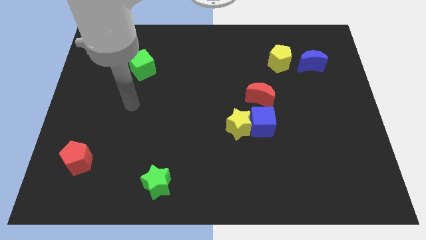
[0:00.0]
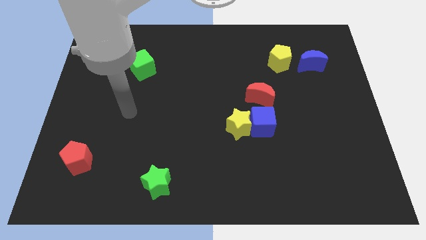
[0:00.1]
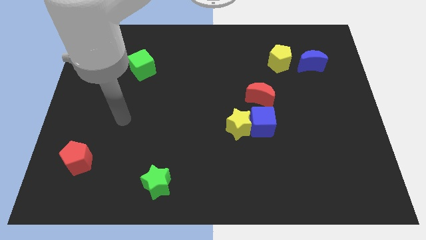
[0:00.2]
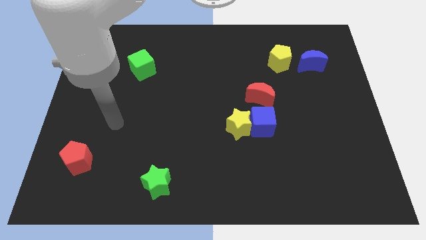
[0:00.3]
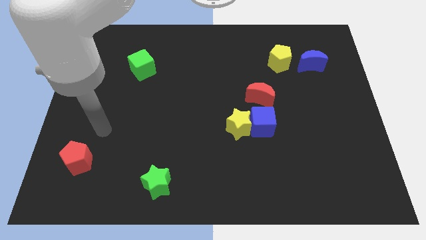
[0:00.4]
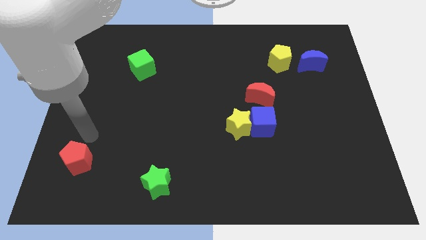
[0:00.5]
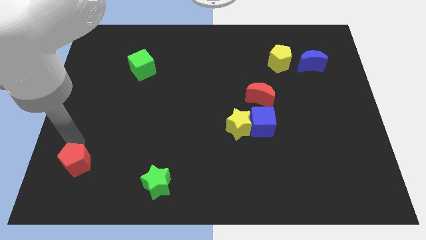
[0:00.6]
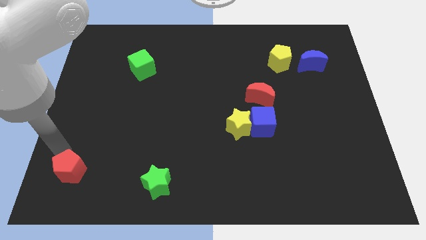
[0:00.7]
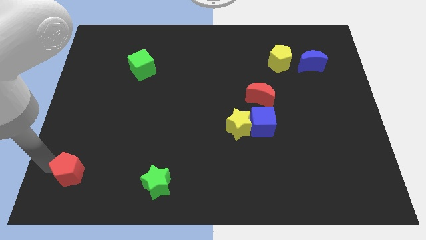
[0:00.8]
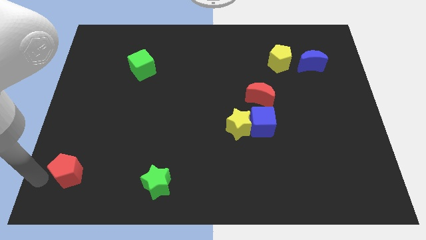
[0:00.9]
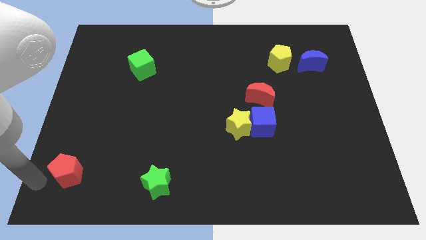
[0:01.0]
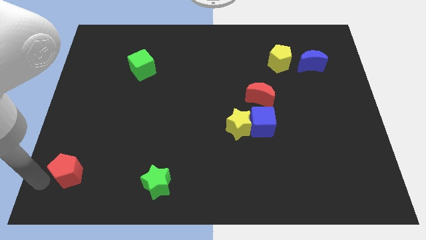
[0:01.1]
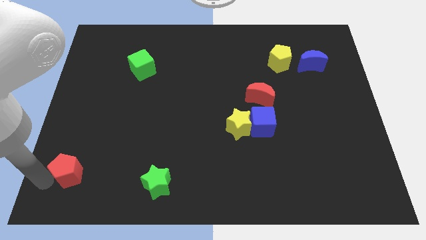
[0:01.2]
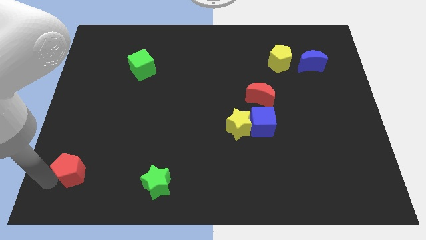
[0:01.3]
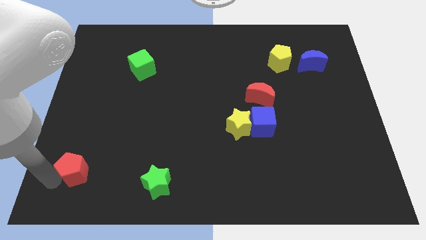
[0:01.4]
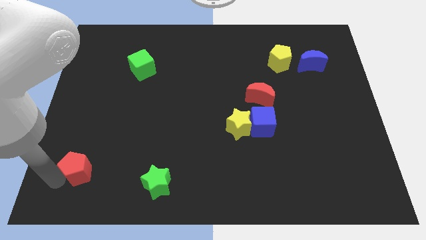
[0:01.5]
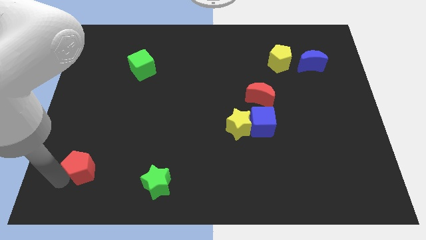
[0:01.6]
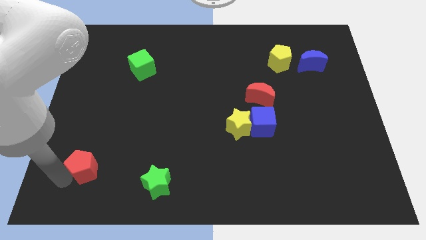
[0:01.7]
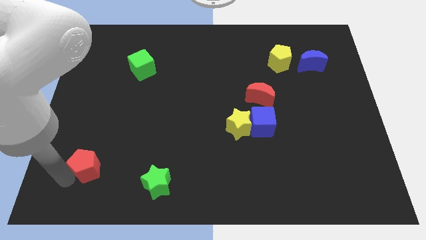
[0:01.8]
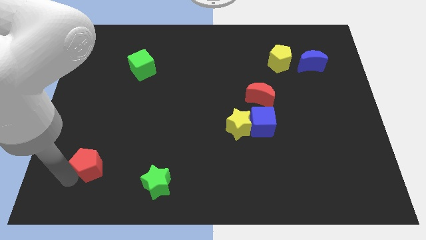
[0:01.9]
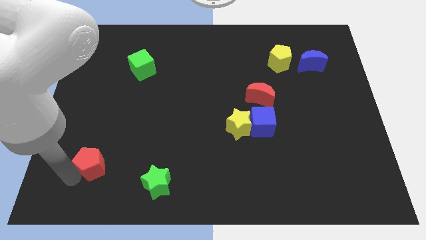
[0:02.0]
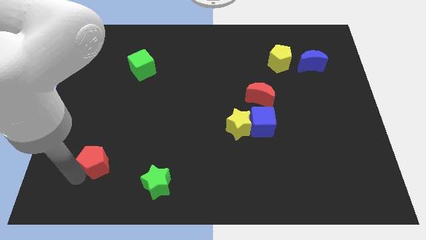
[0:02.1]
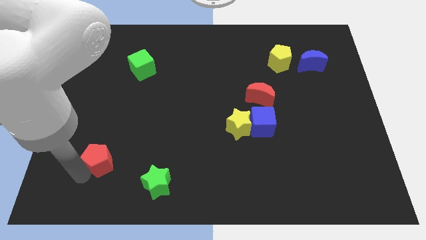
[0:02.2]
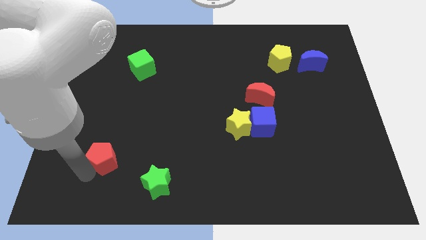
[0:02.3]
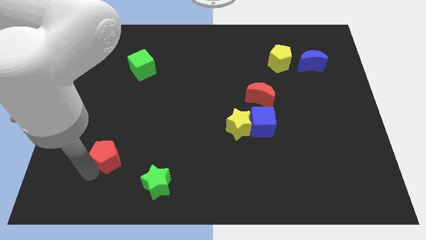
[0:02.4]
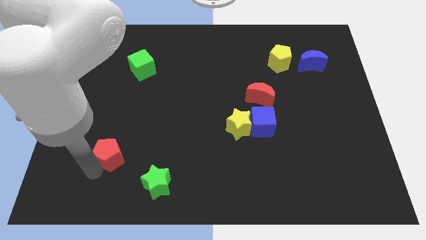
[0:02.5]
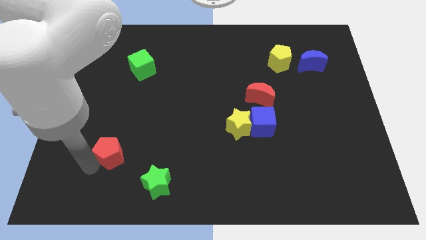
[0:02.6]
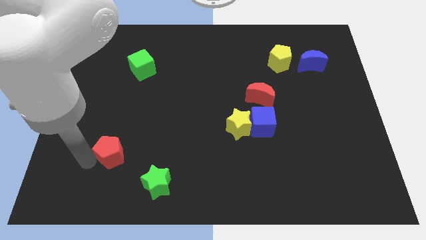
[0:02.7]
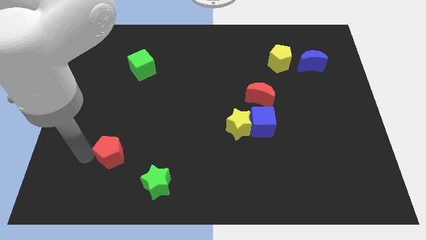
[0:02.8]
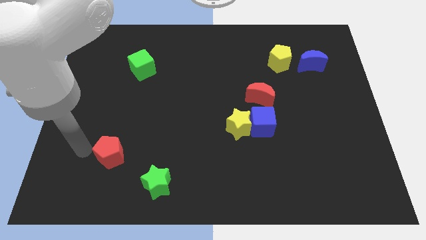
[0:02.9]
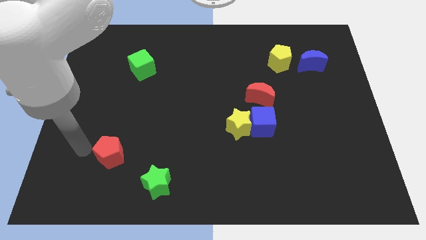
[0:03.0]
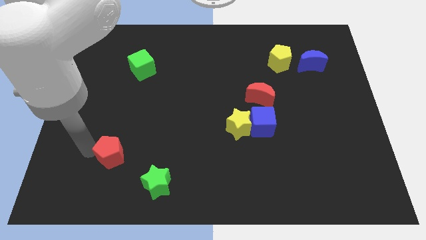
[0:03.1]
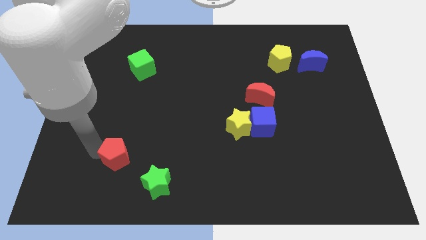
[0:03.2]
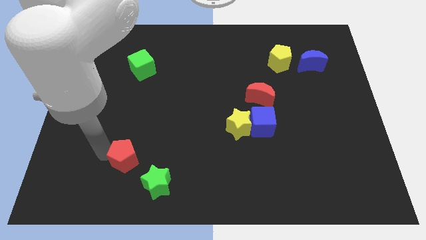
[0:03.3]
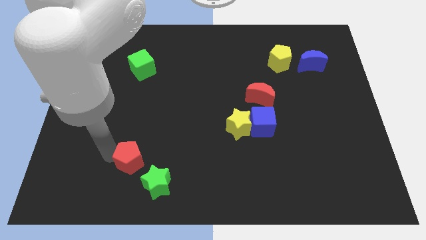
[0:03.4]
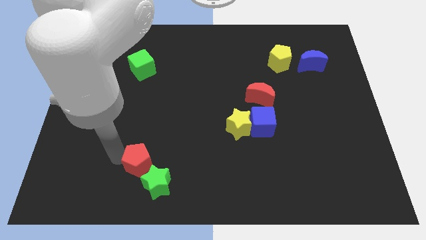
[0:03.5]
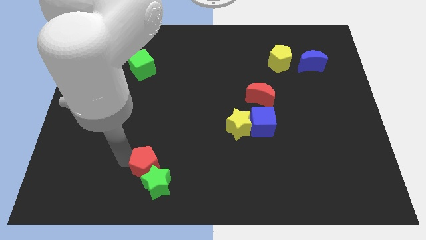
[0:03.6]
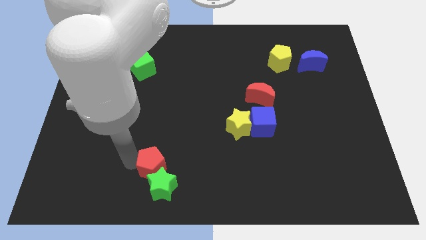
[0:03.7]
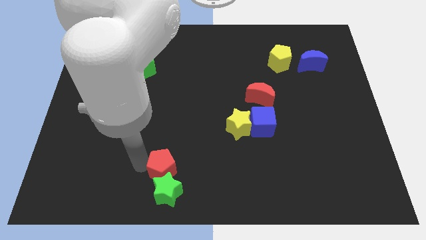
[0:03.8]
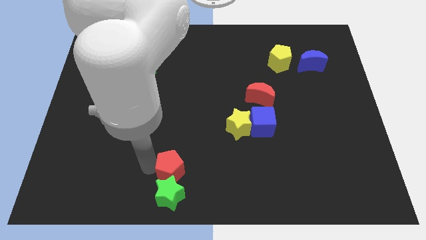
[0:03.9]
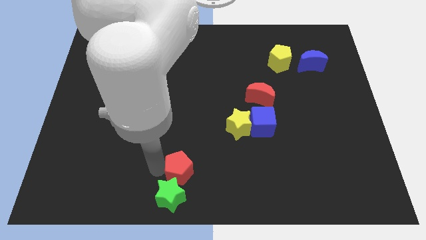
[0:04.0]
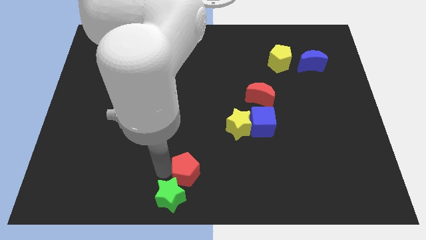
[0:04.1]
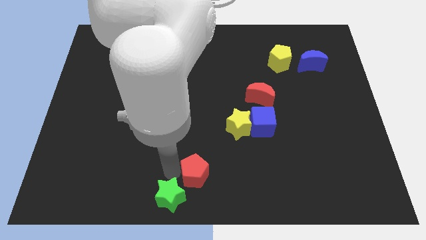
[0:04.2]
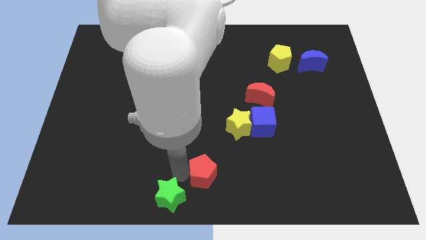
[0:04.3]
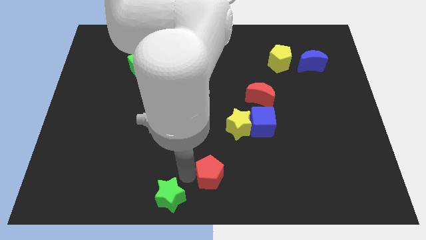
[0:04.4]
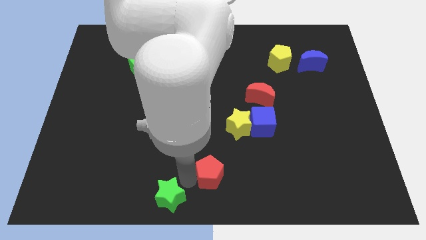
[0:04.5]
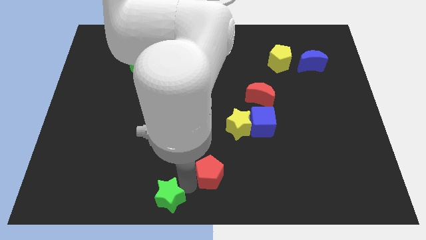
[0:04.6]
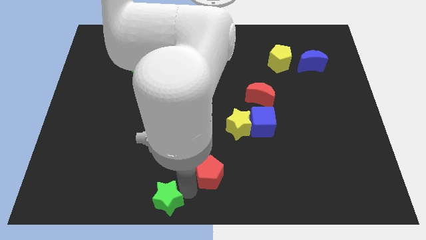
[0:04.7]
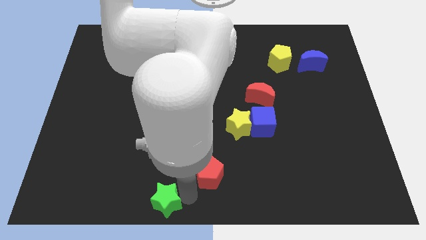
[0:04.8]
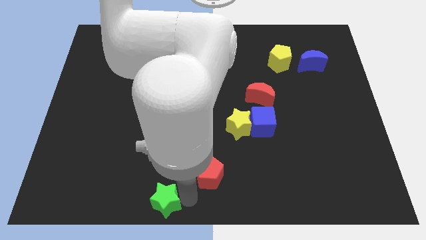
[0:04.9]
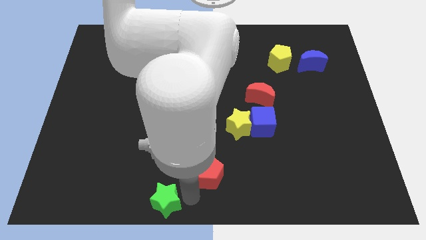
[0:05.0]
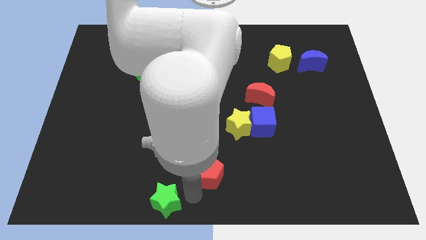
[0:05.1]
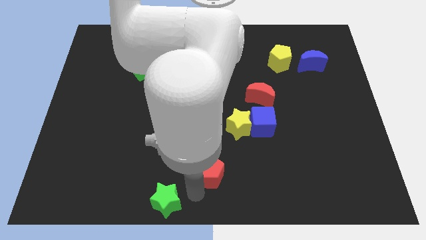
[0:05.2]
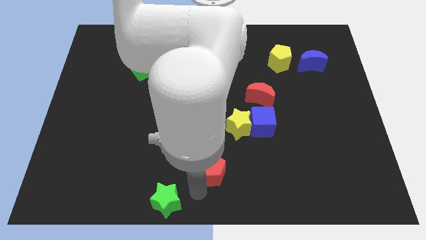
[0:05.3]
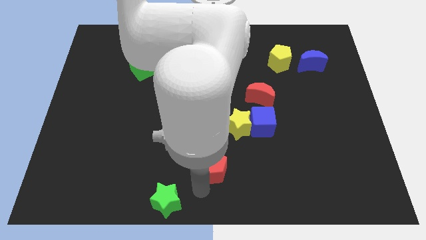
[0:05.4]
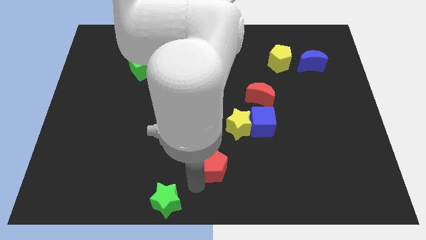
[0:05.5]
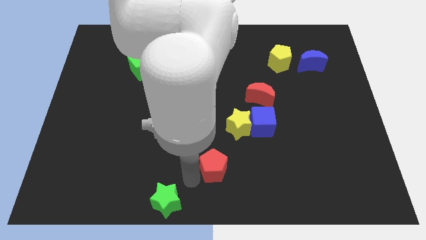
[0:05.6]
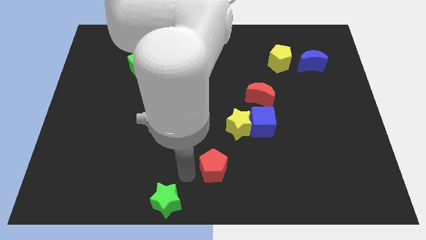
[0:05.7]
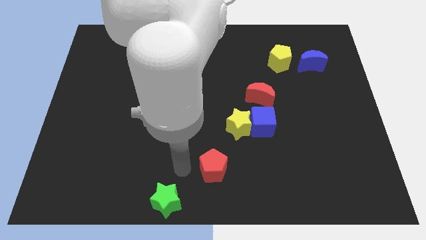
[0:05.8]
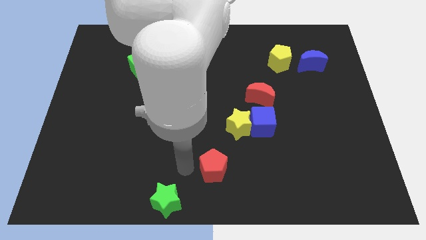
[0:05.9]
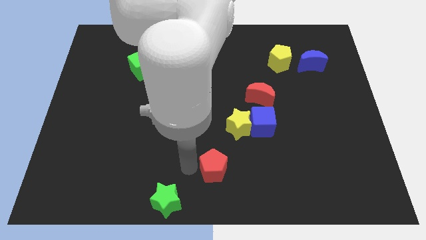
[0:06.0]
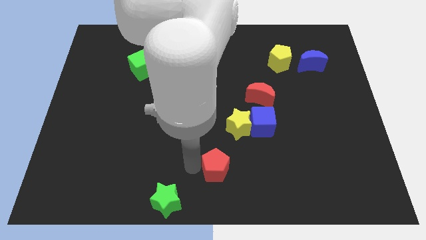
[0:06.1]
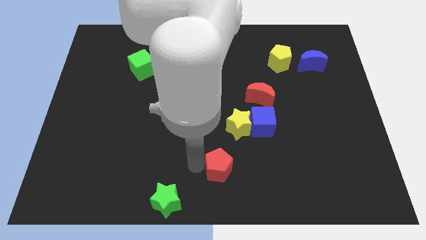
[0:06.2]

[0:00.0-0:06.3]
slide the red pentagon to the bottom side of the yellow star
